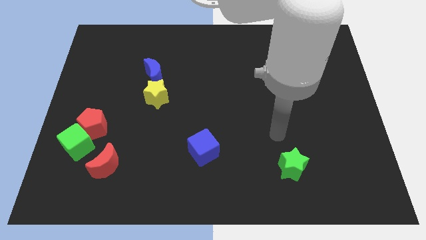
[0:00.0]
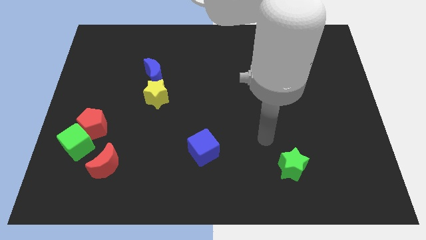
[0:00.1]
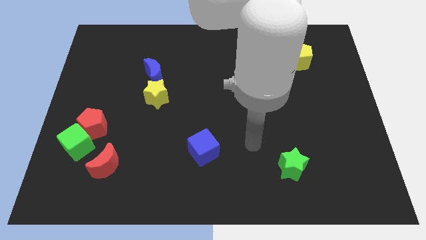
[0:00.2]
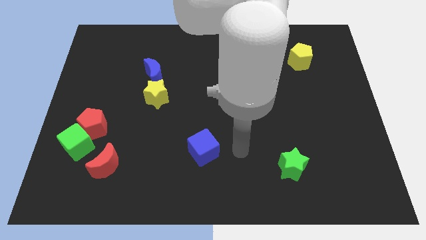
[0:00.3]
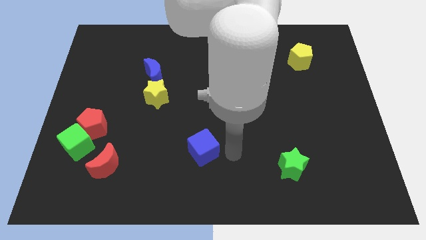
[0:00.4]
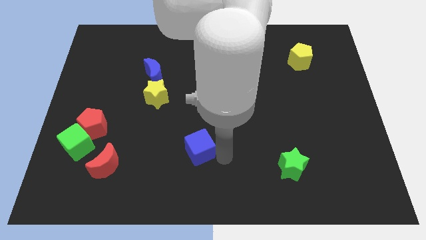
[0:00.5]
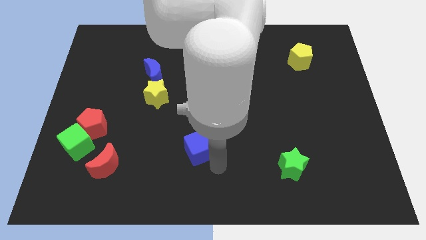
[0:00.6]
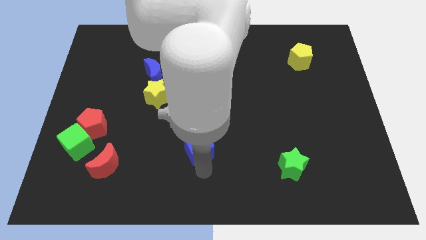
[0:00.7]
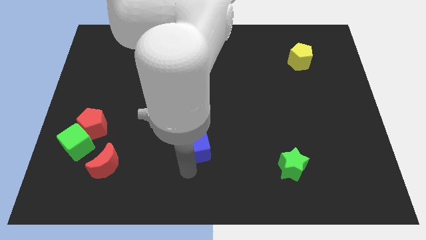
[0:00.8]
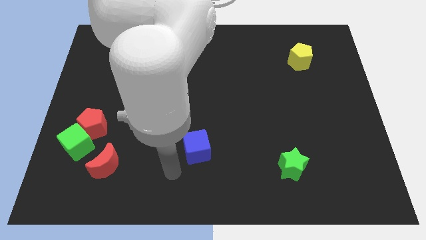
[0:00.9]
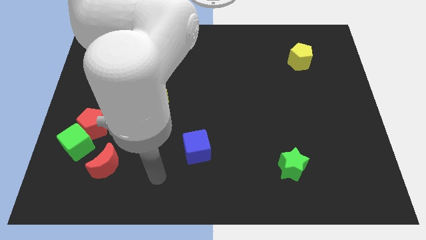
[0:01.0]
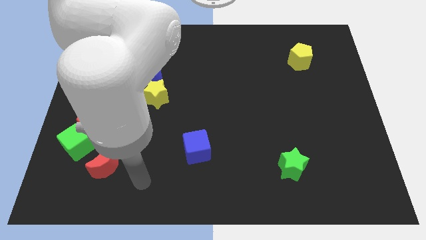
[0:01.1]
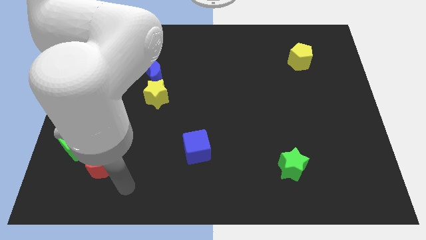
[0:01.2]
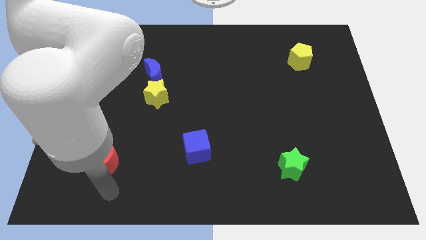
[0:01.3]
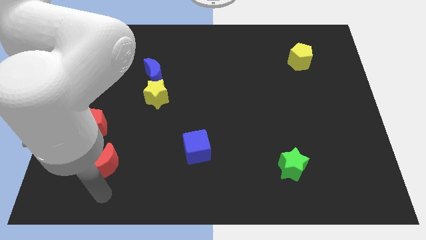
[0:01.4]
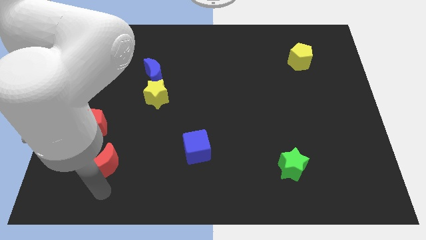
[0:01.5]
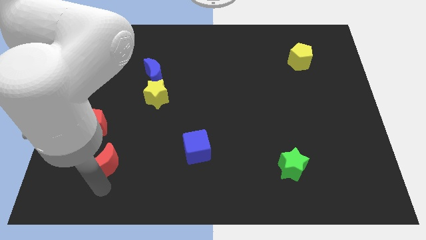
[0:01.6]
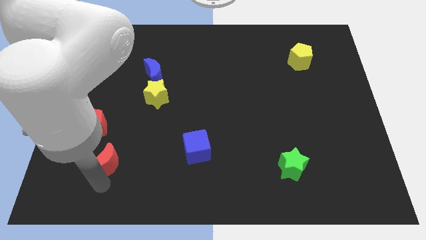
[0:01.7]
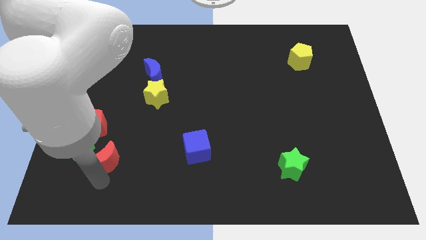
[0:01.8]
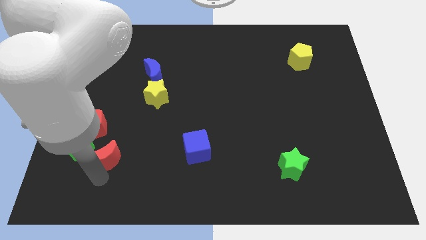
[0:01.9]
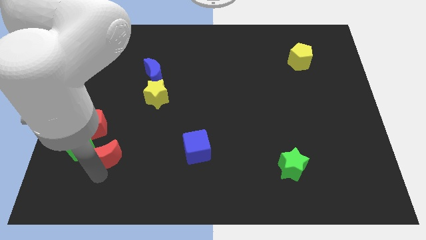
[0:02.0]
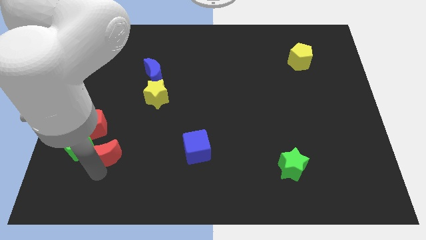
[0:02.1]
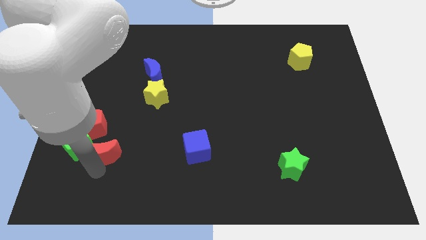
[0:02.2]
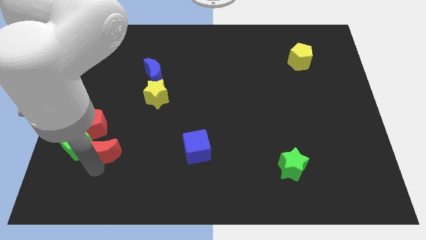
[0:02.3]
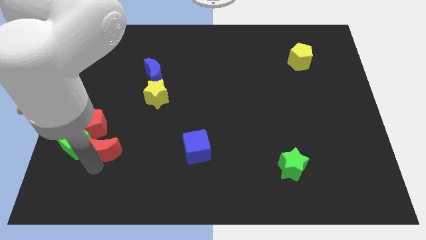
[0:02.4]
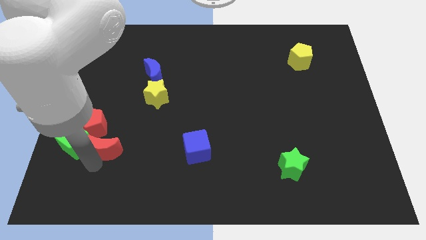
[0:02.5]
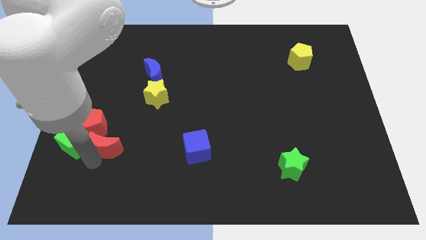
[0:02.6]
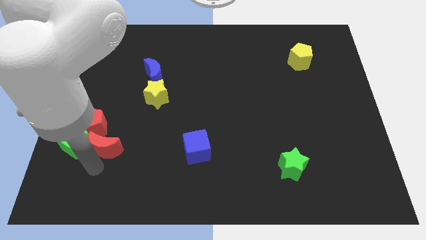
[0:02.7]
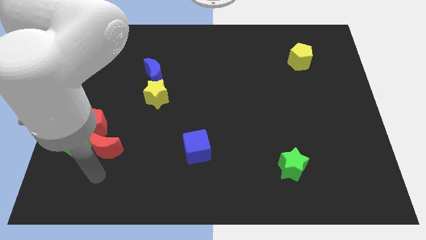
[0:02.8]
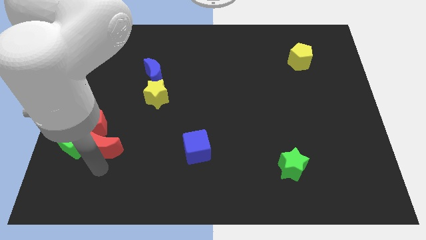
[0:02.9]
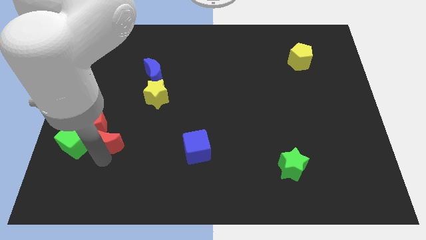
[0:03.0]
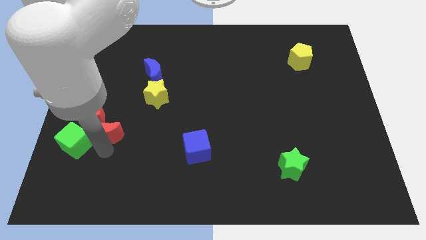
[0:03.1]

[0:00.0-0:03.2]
slightly slide the red moon upwards

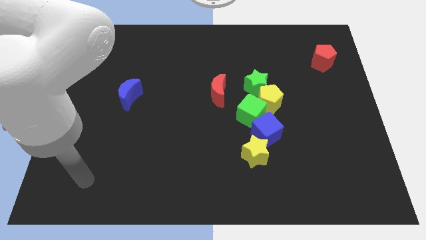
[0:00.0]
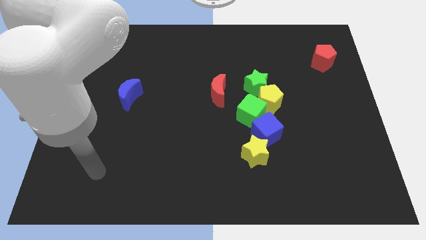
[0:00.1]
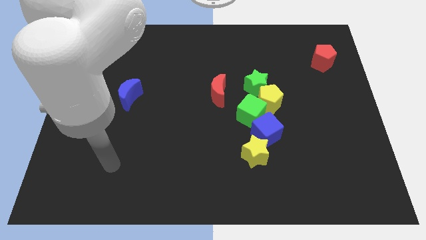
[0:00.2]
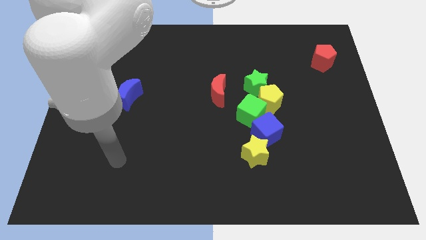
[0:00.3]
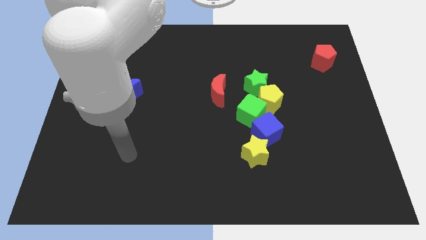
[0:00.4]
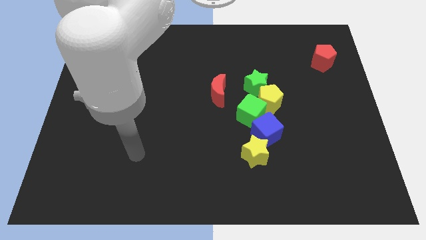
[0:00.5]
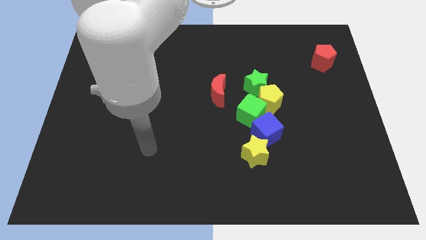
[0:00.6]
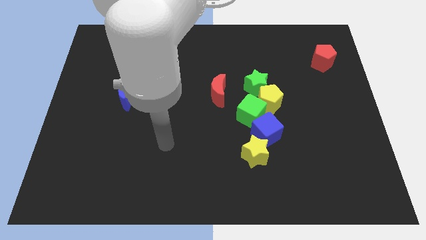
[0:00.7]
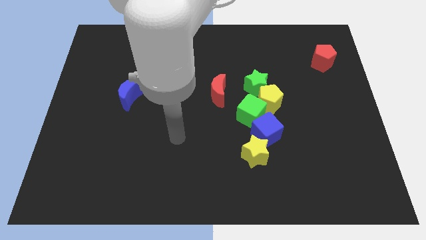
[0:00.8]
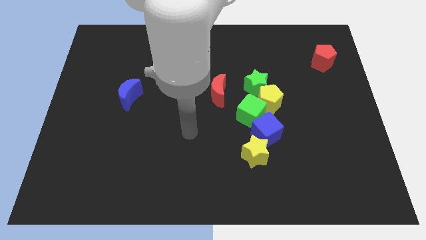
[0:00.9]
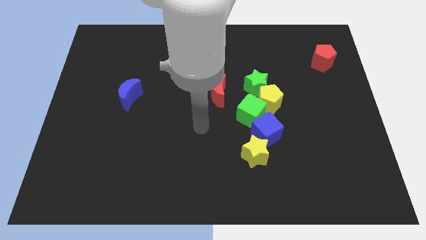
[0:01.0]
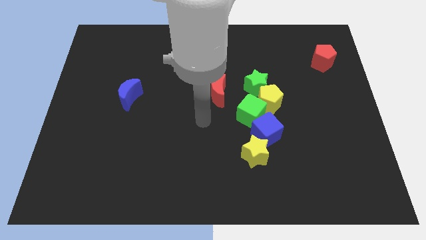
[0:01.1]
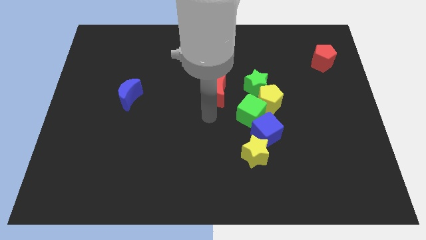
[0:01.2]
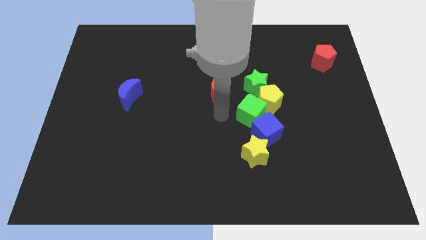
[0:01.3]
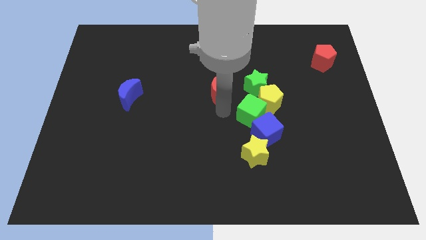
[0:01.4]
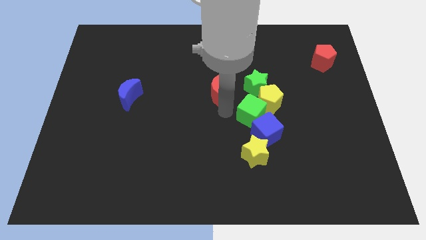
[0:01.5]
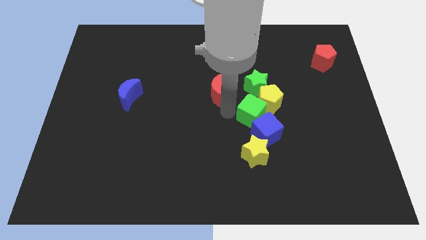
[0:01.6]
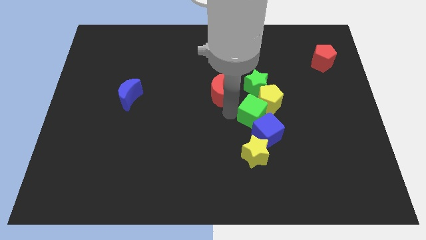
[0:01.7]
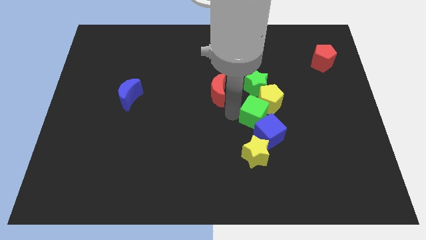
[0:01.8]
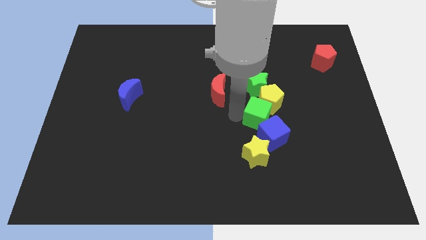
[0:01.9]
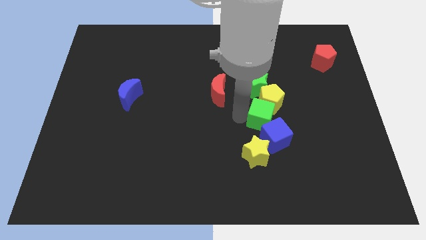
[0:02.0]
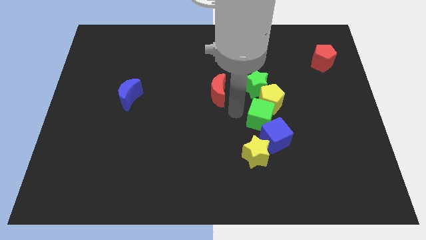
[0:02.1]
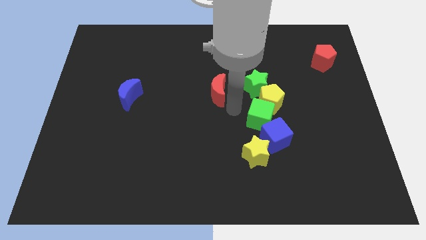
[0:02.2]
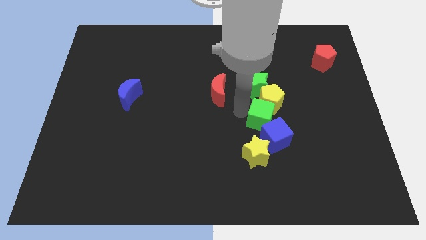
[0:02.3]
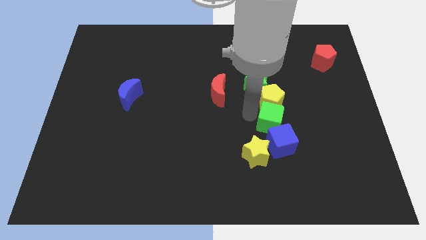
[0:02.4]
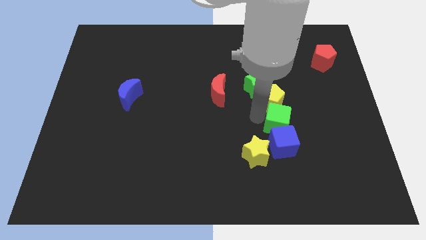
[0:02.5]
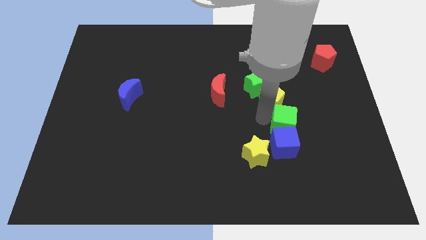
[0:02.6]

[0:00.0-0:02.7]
slightly move the green cube to the right

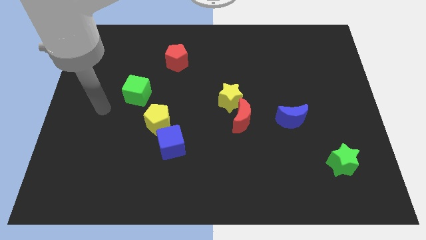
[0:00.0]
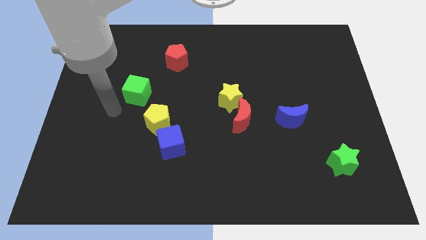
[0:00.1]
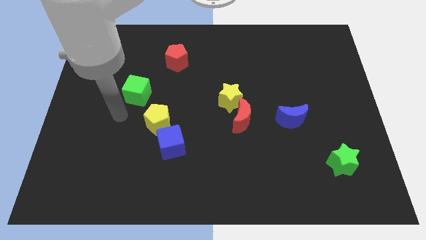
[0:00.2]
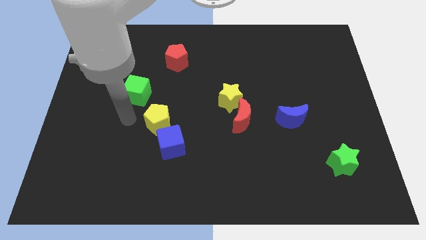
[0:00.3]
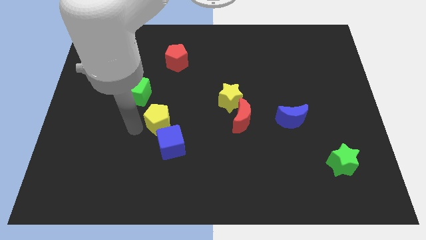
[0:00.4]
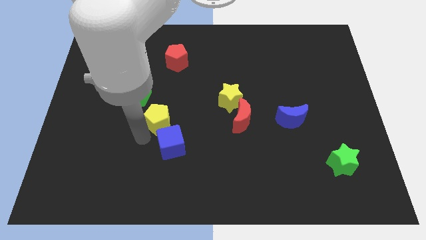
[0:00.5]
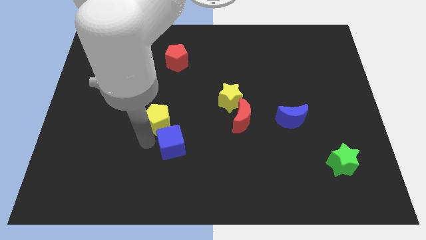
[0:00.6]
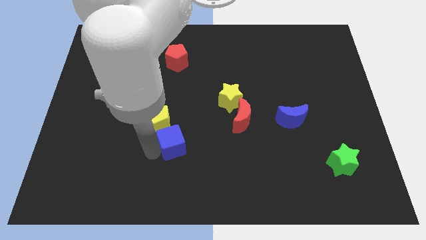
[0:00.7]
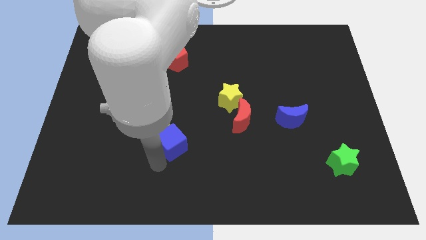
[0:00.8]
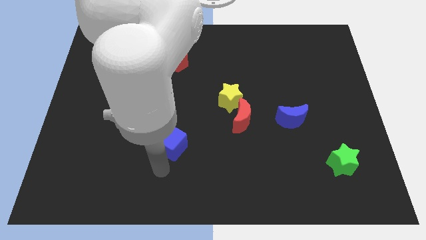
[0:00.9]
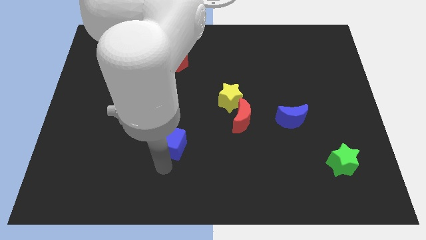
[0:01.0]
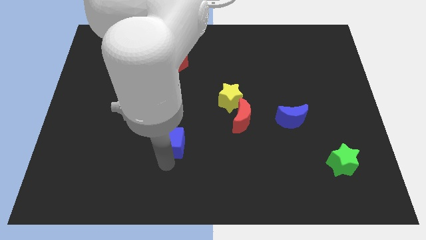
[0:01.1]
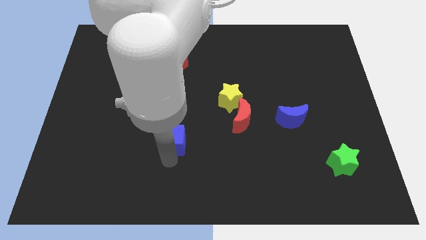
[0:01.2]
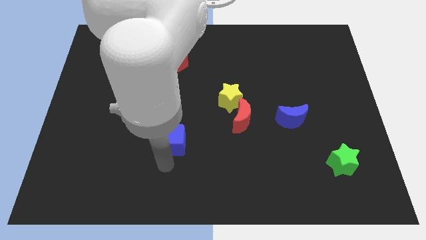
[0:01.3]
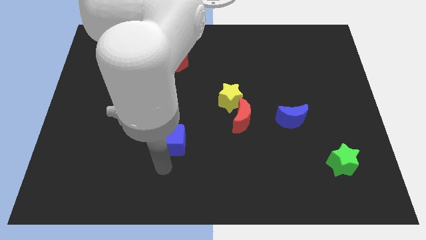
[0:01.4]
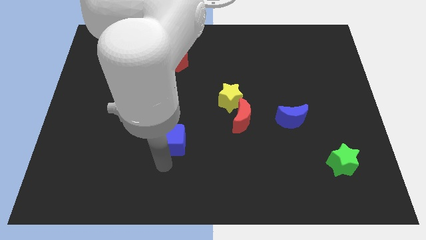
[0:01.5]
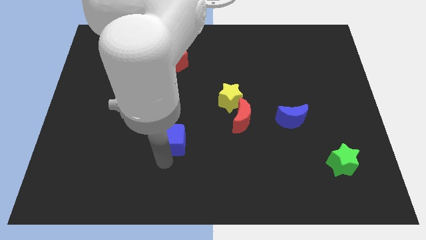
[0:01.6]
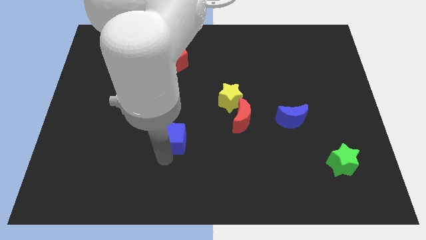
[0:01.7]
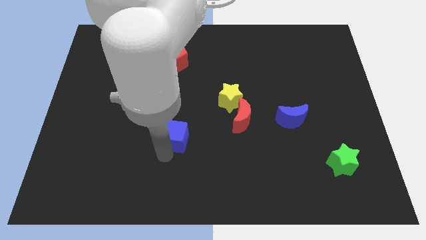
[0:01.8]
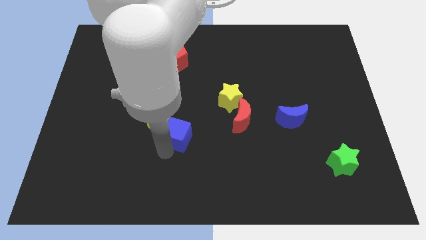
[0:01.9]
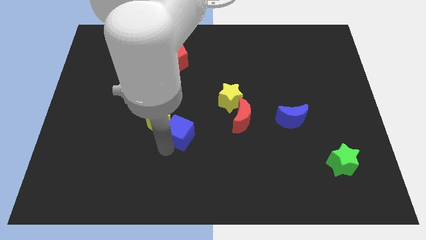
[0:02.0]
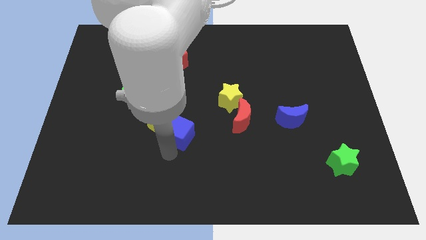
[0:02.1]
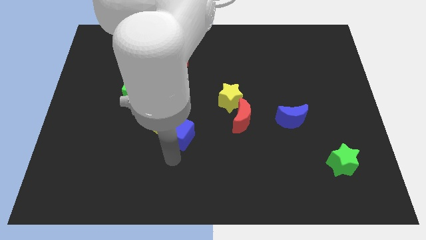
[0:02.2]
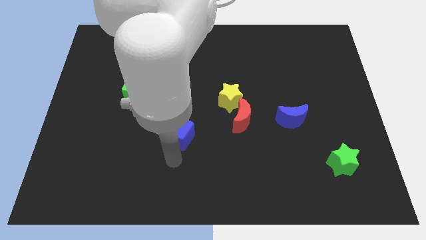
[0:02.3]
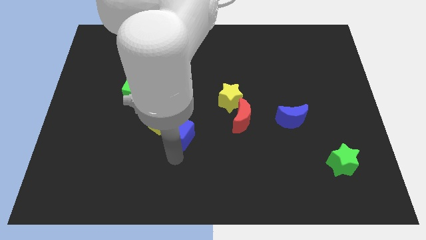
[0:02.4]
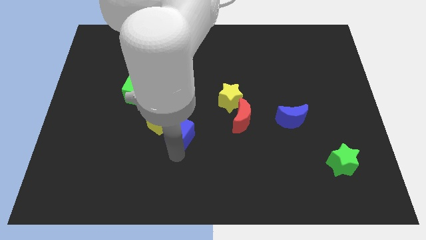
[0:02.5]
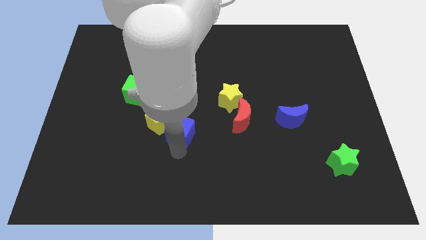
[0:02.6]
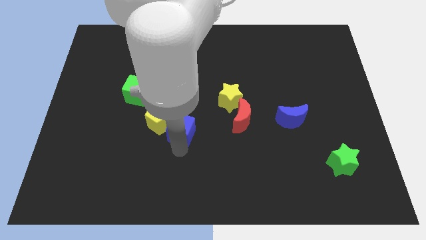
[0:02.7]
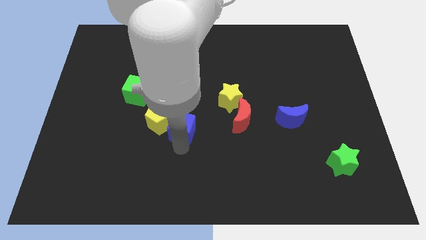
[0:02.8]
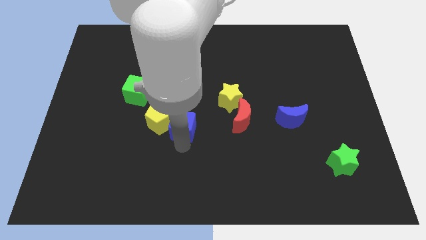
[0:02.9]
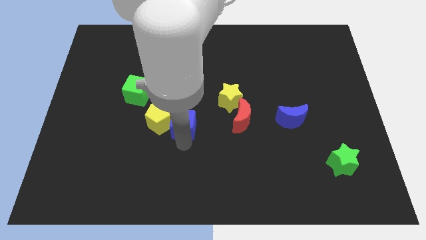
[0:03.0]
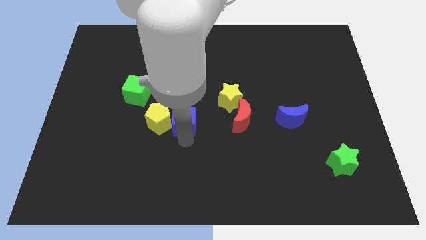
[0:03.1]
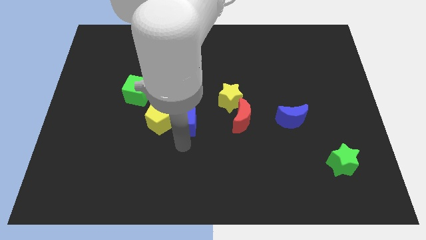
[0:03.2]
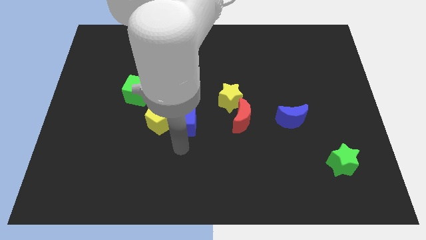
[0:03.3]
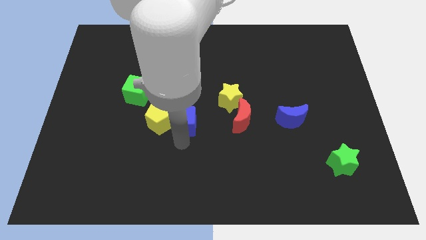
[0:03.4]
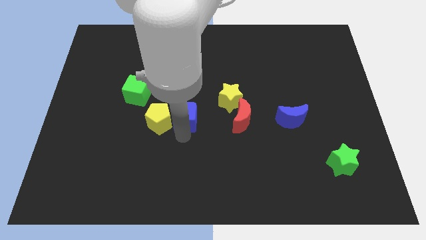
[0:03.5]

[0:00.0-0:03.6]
move the blue cube upwards a bit
